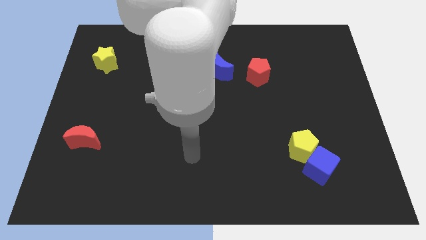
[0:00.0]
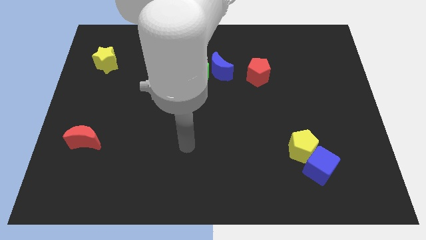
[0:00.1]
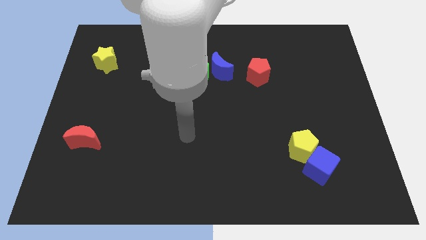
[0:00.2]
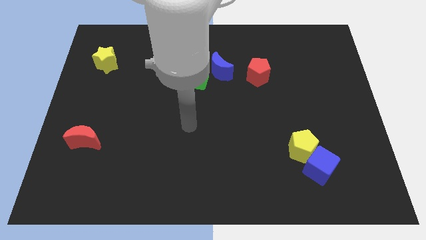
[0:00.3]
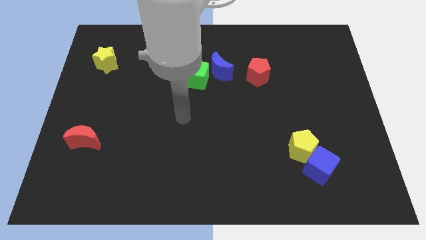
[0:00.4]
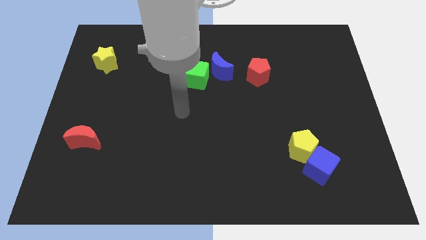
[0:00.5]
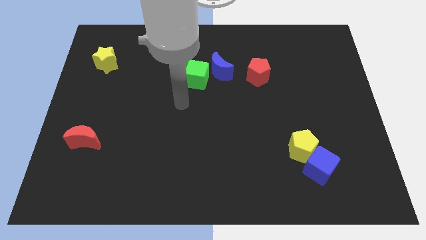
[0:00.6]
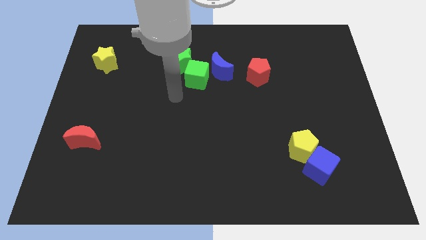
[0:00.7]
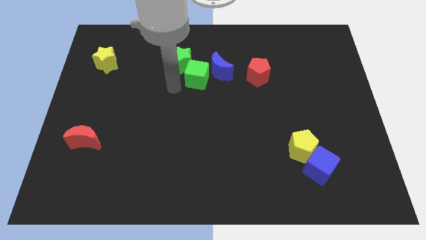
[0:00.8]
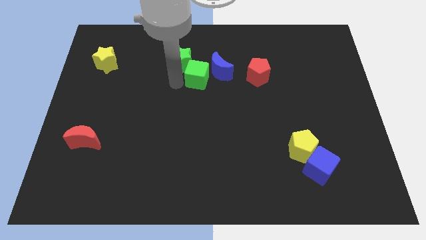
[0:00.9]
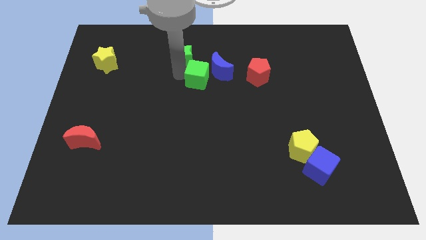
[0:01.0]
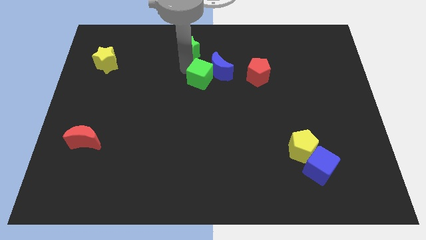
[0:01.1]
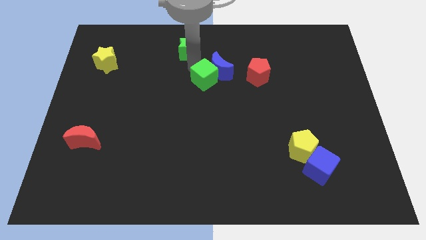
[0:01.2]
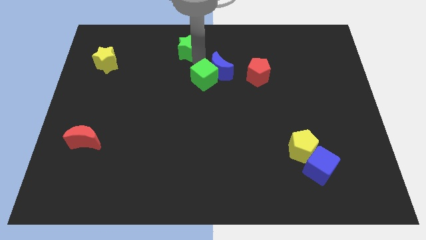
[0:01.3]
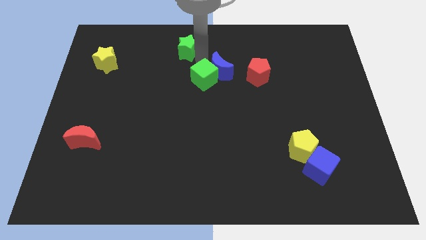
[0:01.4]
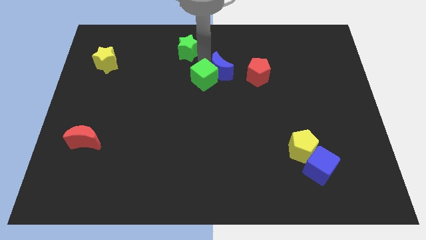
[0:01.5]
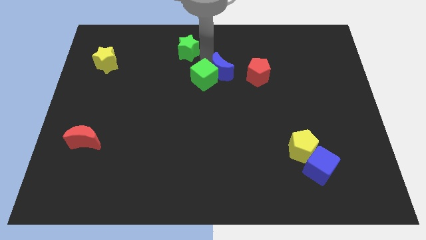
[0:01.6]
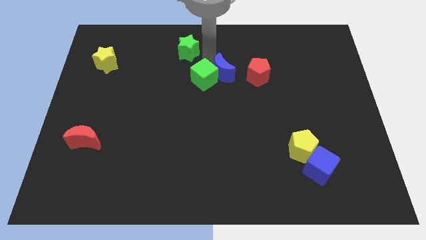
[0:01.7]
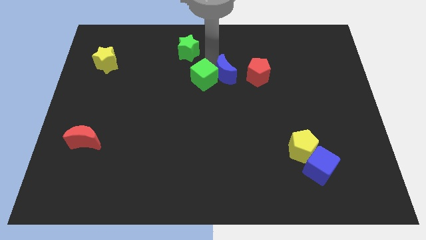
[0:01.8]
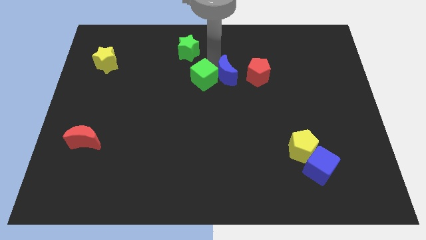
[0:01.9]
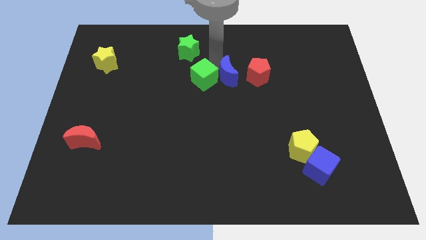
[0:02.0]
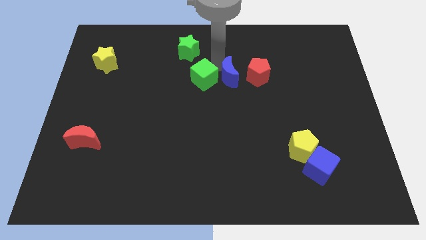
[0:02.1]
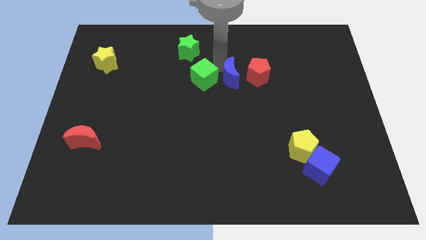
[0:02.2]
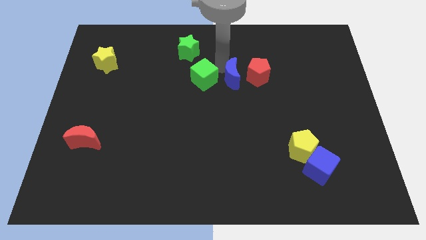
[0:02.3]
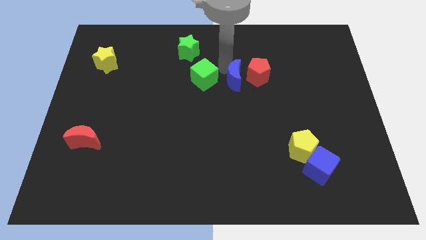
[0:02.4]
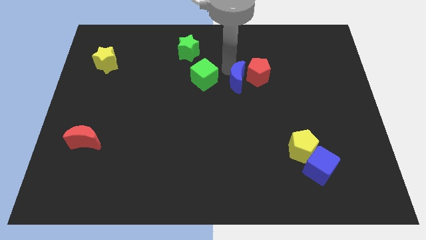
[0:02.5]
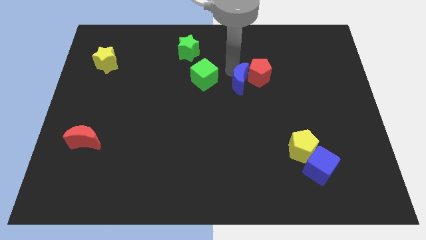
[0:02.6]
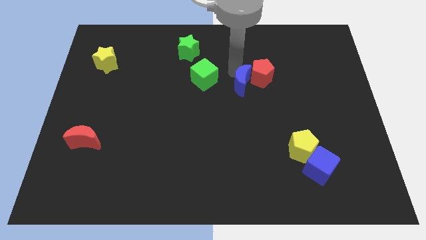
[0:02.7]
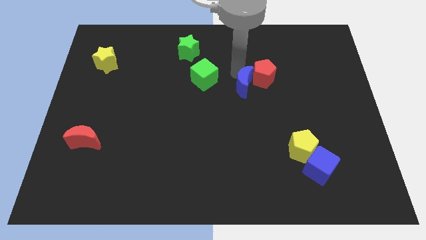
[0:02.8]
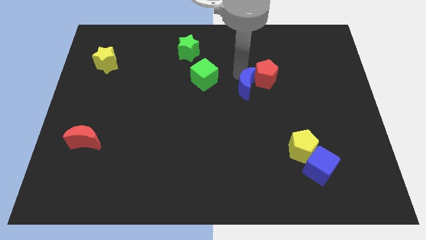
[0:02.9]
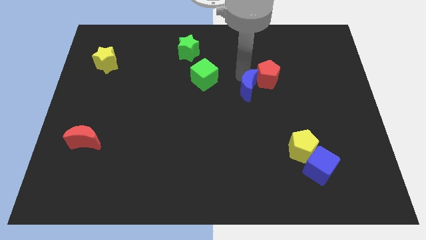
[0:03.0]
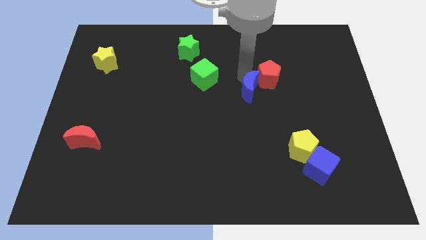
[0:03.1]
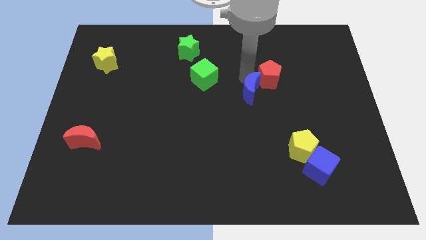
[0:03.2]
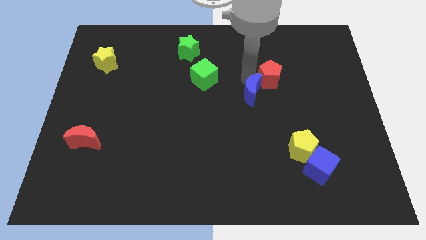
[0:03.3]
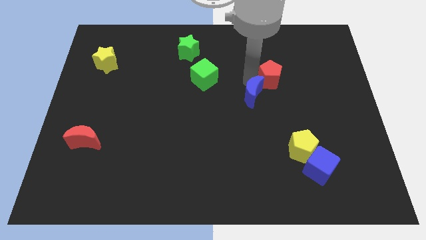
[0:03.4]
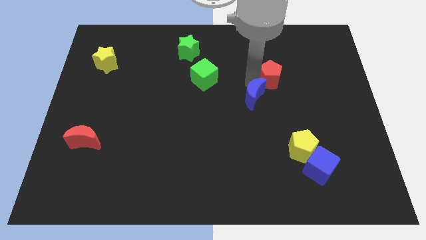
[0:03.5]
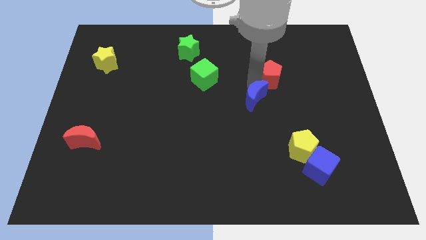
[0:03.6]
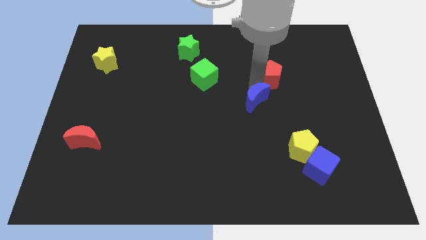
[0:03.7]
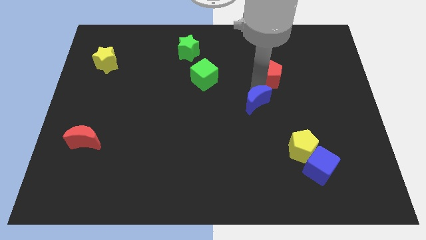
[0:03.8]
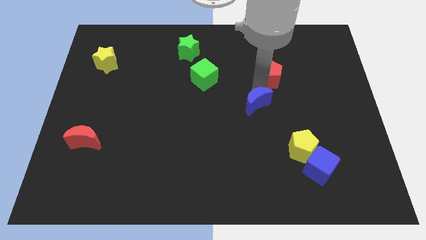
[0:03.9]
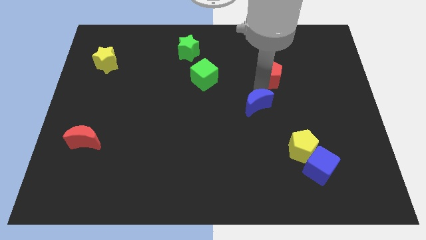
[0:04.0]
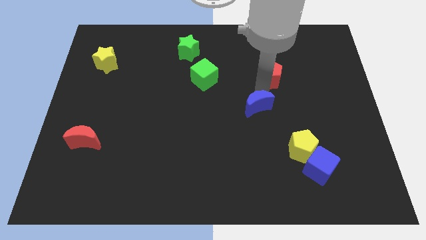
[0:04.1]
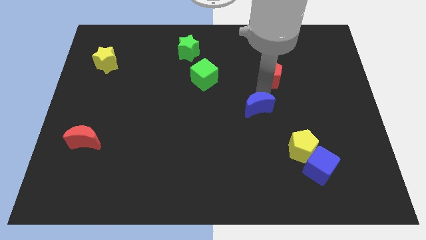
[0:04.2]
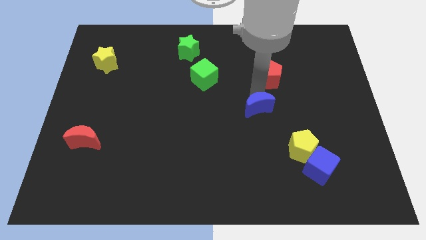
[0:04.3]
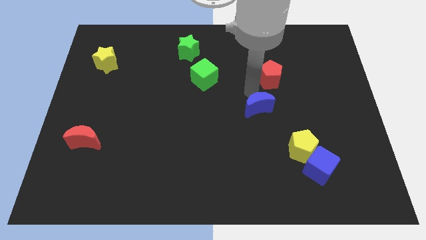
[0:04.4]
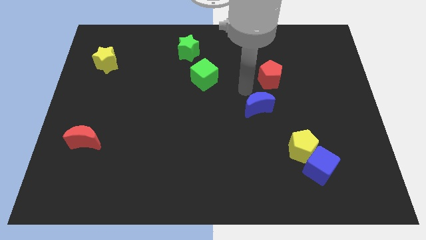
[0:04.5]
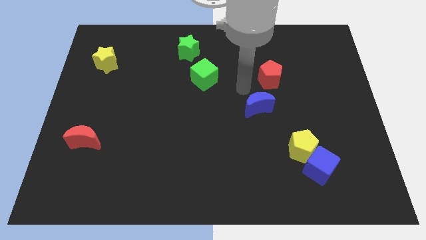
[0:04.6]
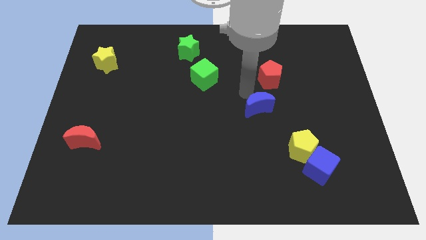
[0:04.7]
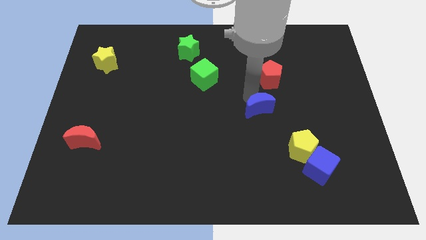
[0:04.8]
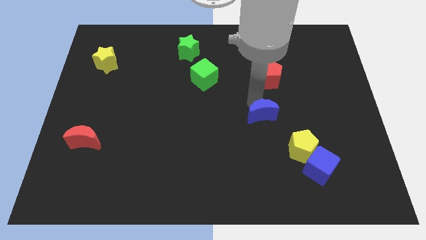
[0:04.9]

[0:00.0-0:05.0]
put the blue moon diagonally up and to the left of the yellow pentagon

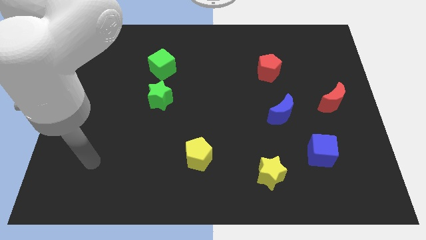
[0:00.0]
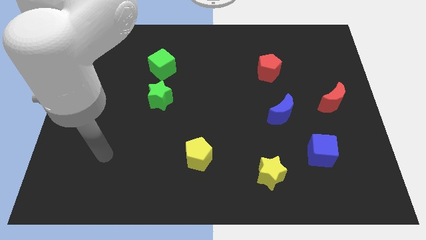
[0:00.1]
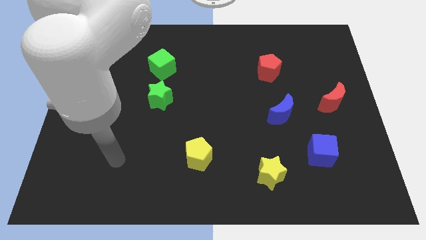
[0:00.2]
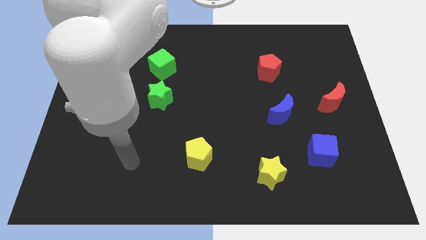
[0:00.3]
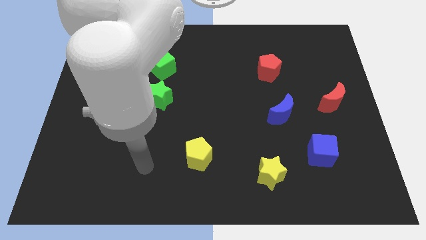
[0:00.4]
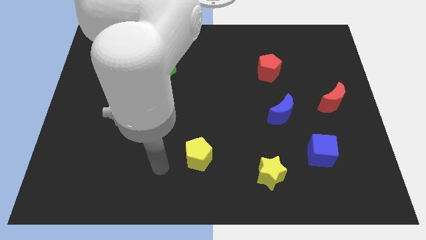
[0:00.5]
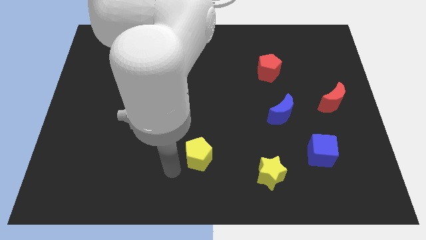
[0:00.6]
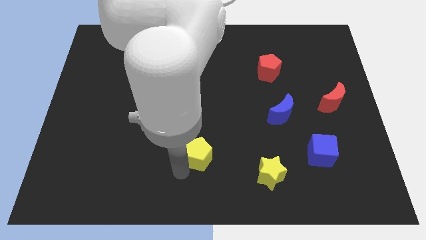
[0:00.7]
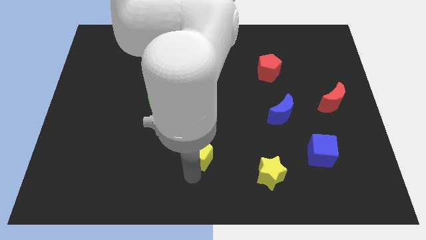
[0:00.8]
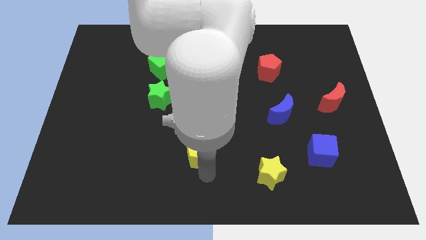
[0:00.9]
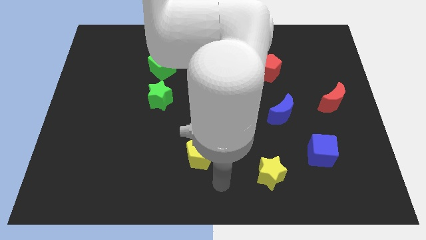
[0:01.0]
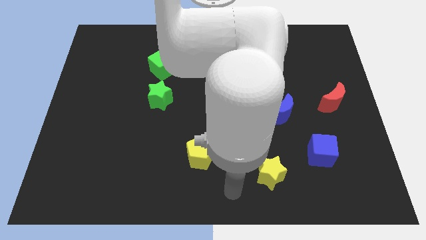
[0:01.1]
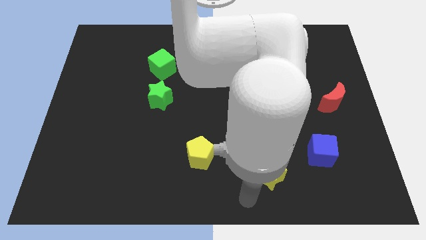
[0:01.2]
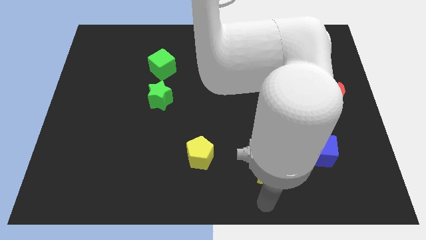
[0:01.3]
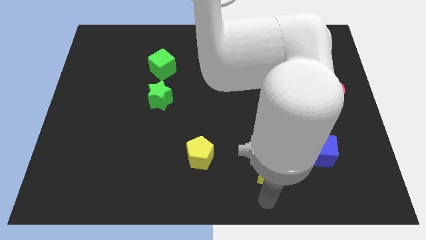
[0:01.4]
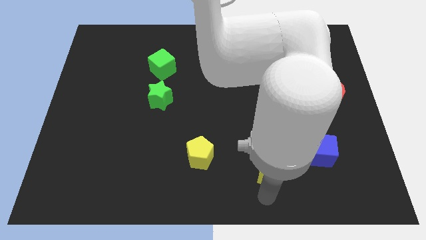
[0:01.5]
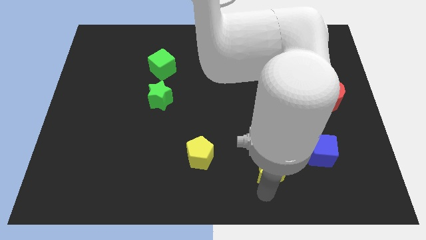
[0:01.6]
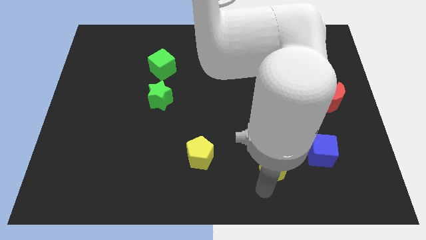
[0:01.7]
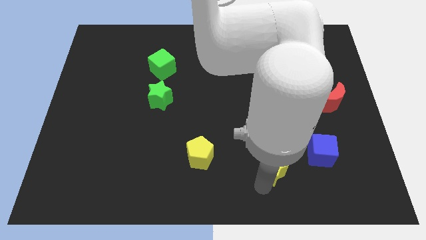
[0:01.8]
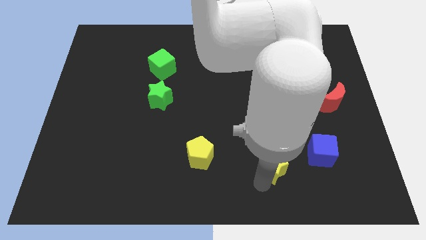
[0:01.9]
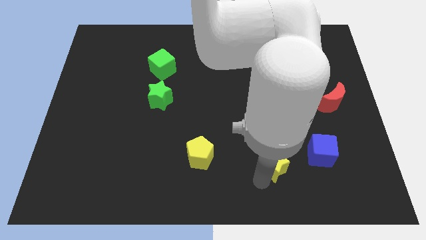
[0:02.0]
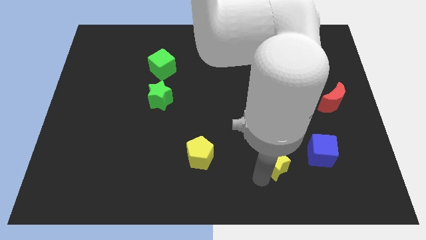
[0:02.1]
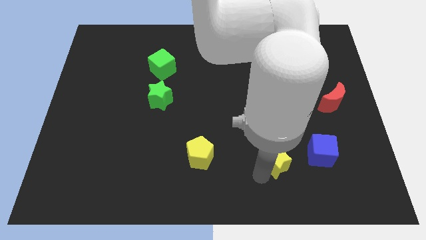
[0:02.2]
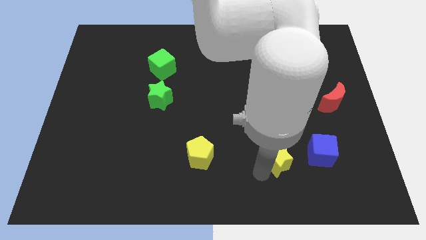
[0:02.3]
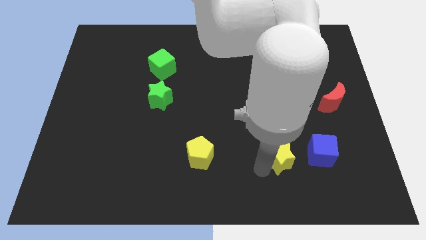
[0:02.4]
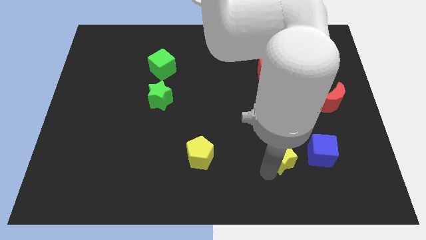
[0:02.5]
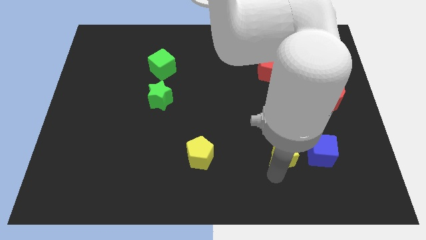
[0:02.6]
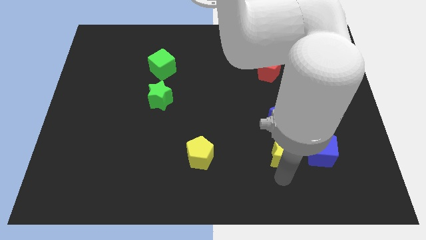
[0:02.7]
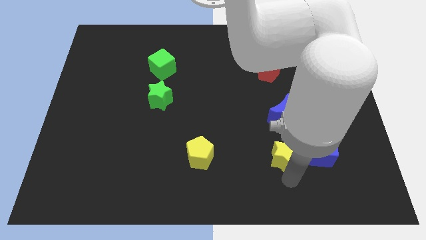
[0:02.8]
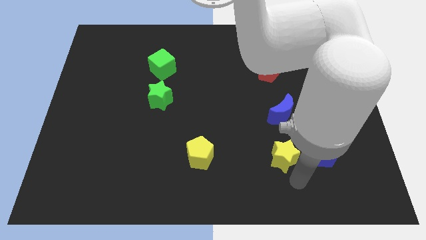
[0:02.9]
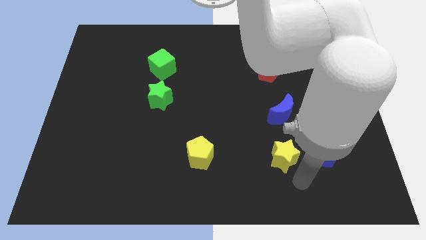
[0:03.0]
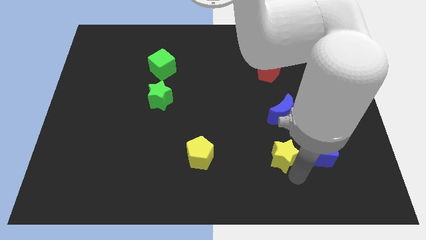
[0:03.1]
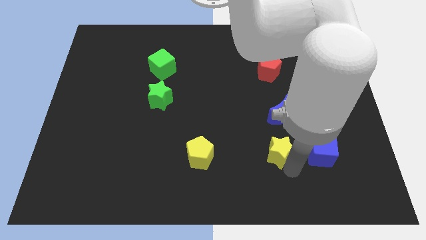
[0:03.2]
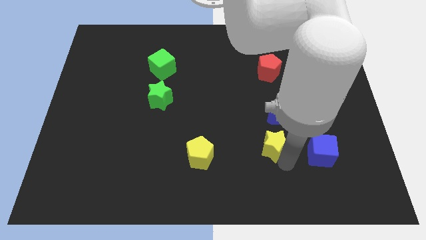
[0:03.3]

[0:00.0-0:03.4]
move the yellow star to the bottom left of the blue moon
